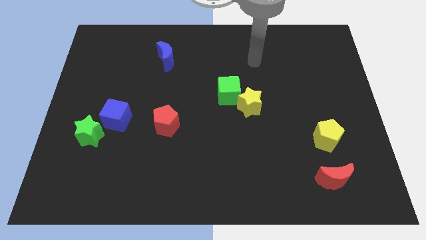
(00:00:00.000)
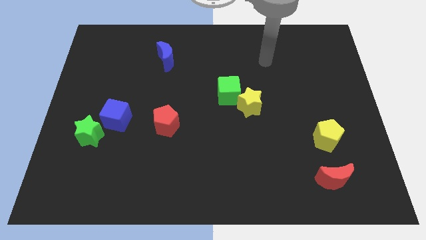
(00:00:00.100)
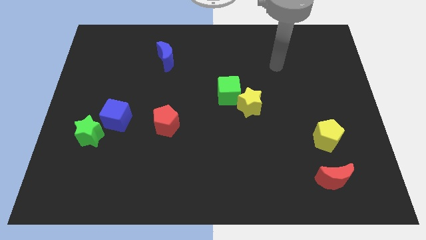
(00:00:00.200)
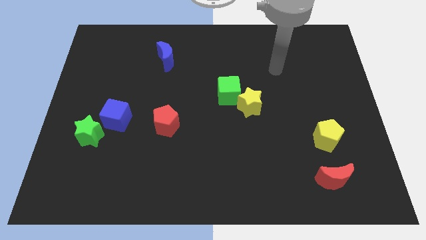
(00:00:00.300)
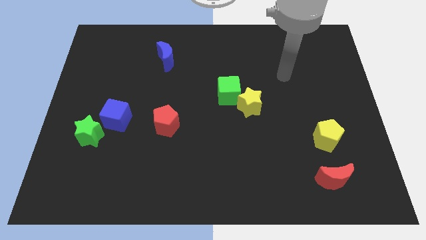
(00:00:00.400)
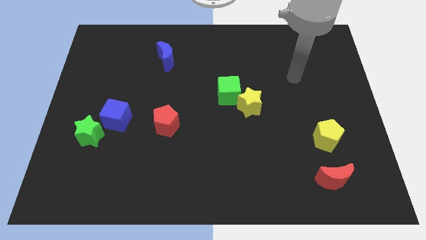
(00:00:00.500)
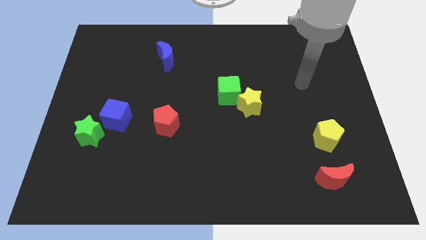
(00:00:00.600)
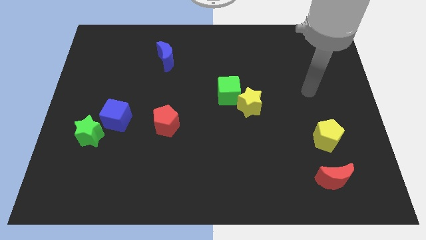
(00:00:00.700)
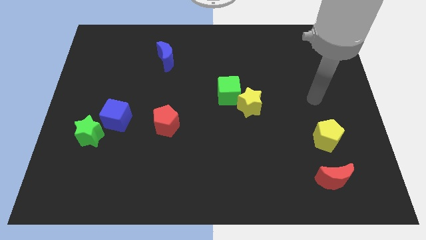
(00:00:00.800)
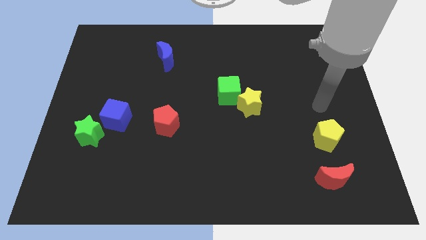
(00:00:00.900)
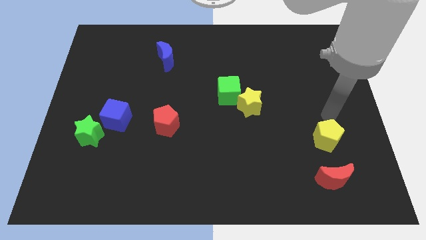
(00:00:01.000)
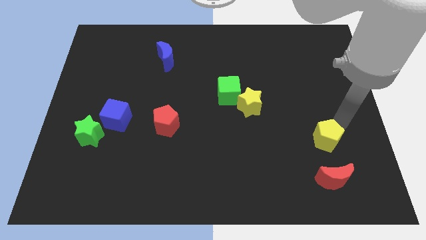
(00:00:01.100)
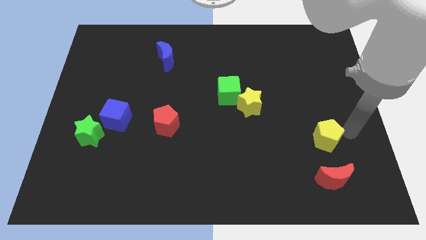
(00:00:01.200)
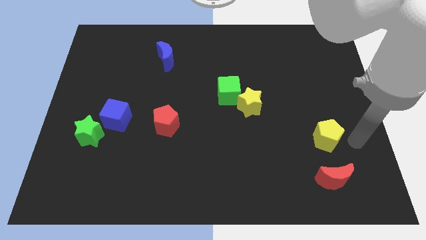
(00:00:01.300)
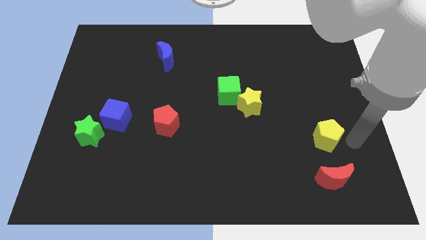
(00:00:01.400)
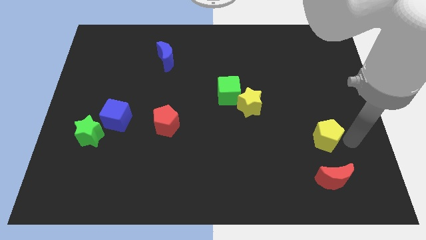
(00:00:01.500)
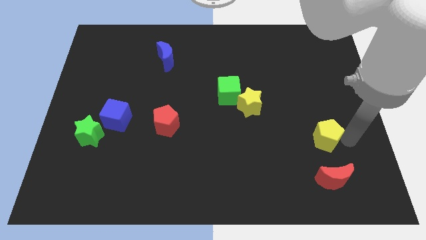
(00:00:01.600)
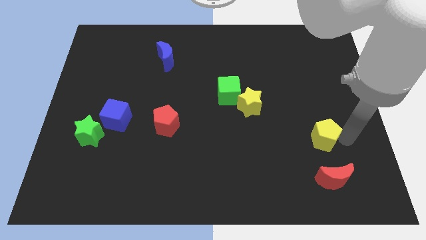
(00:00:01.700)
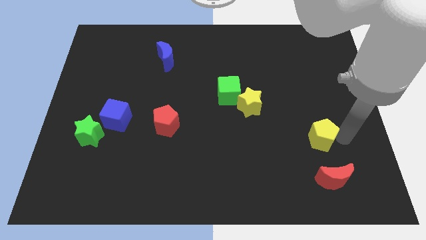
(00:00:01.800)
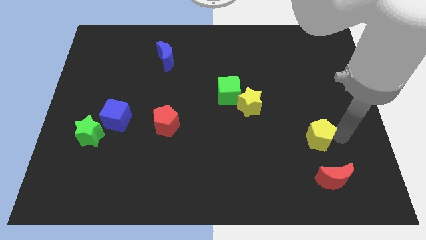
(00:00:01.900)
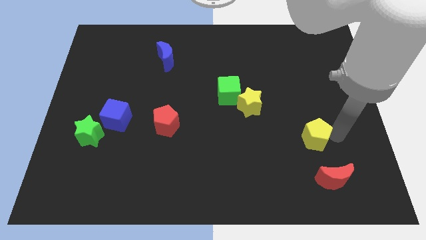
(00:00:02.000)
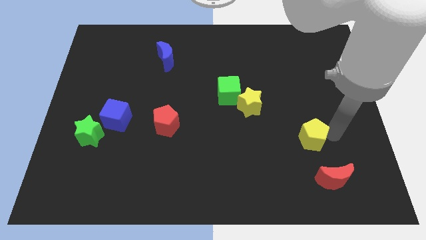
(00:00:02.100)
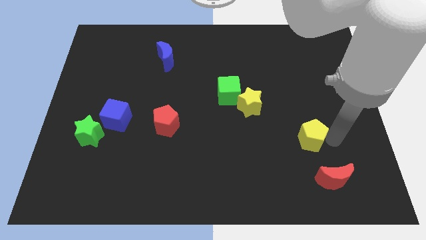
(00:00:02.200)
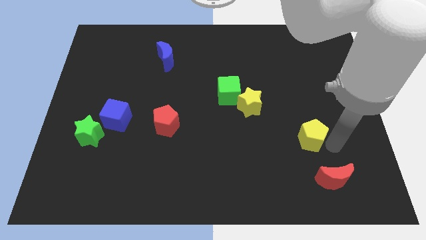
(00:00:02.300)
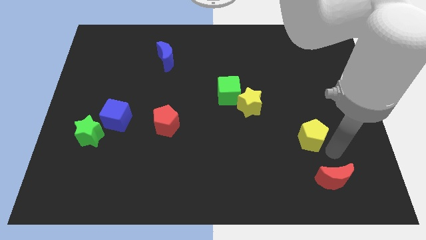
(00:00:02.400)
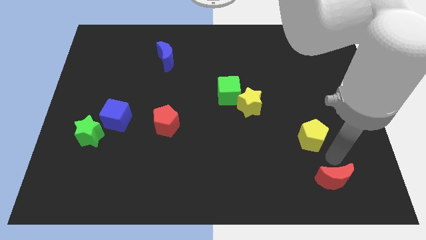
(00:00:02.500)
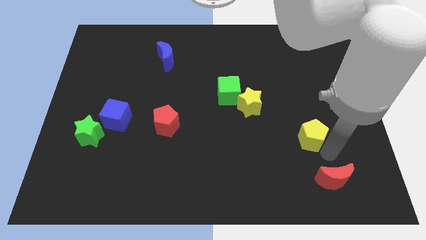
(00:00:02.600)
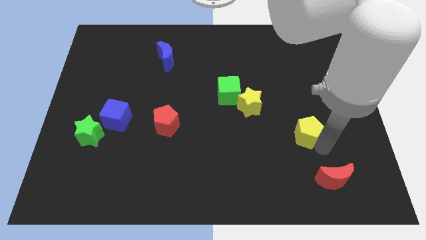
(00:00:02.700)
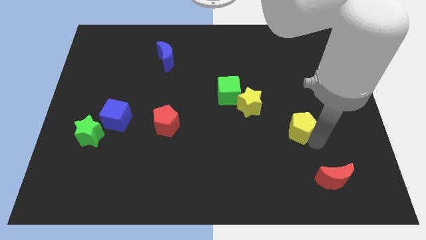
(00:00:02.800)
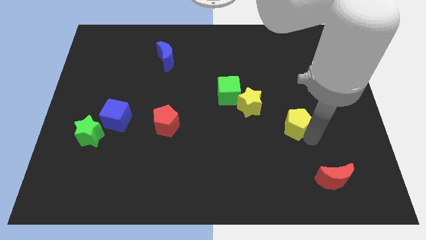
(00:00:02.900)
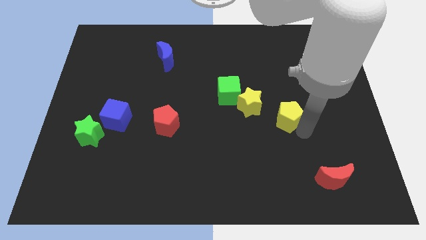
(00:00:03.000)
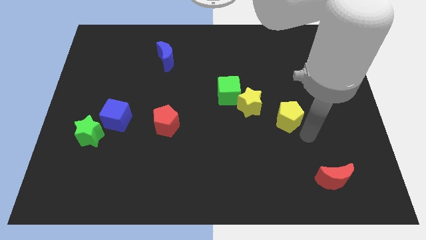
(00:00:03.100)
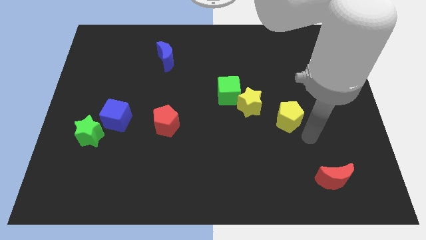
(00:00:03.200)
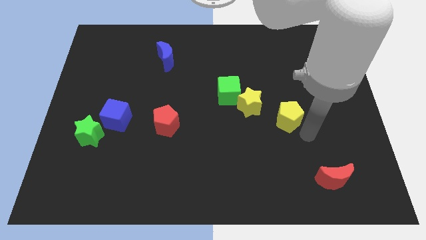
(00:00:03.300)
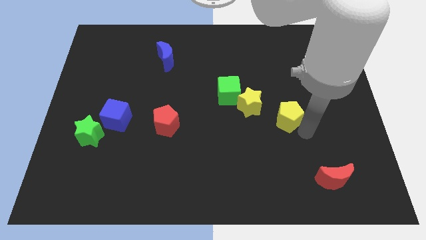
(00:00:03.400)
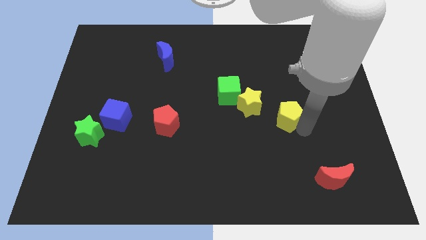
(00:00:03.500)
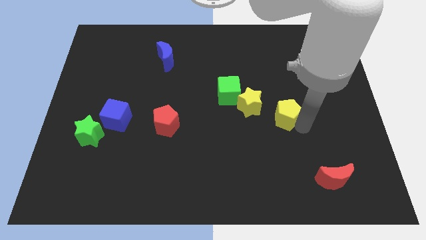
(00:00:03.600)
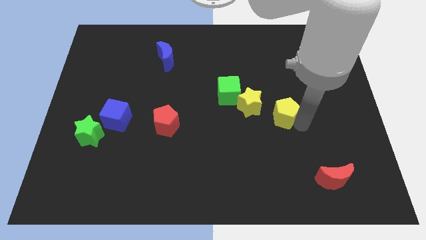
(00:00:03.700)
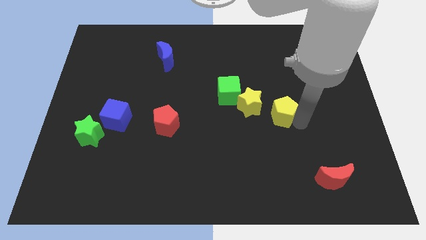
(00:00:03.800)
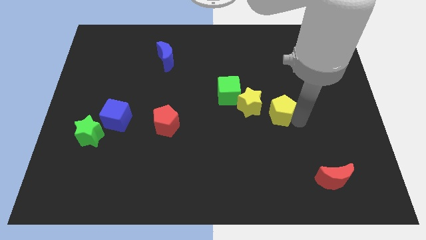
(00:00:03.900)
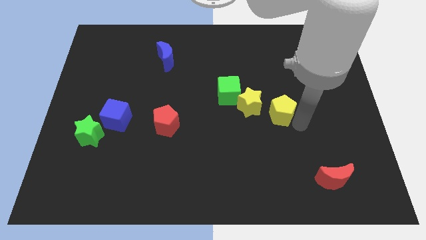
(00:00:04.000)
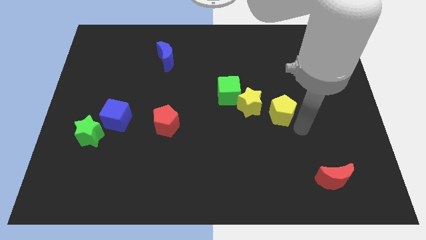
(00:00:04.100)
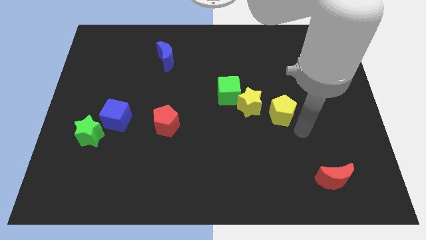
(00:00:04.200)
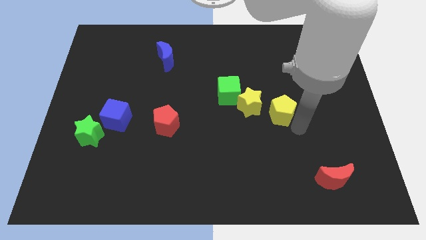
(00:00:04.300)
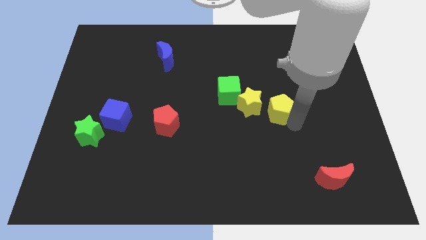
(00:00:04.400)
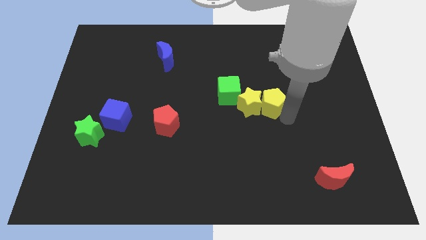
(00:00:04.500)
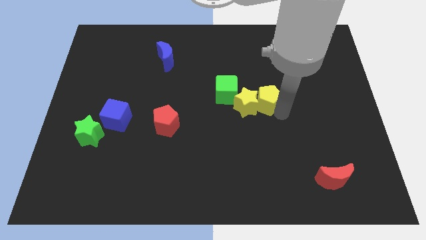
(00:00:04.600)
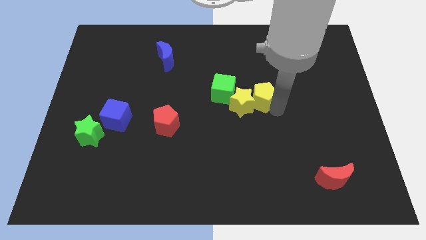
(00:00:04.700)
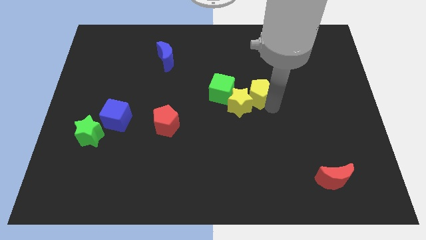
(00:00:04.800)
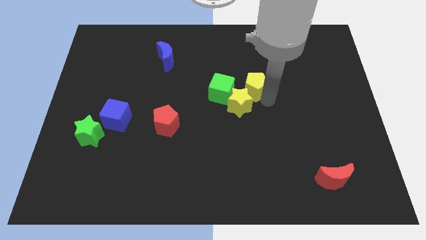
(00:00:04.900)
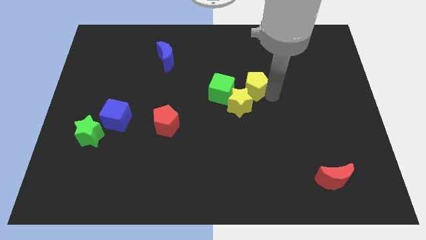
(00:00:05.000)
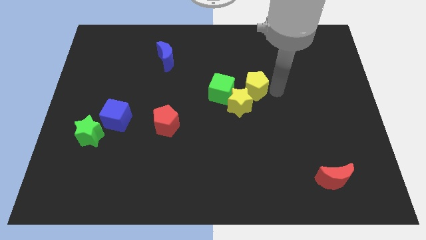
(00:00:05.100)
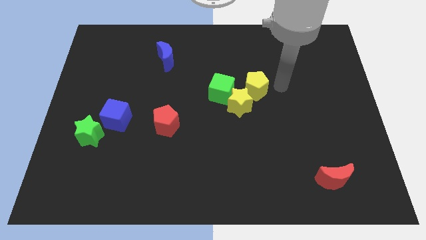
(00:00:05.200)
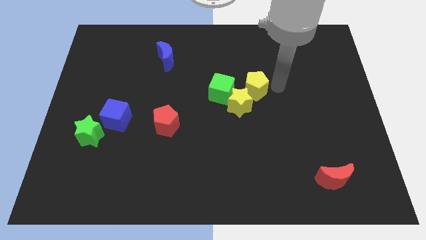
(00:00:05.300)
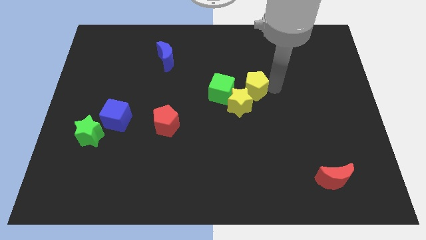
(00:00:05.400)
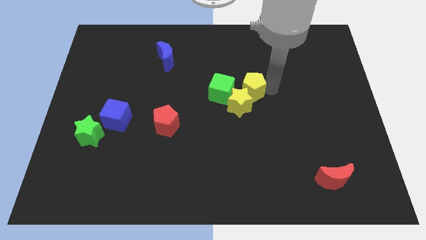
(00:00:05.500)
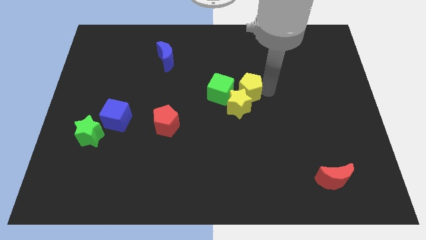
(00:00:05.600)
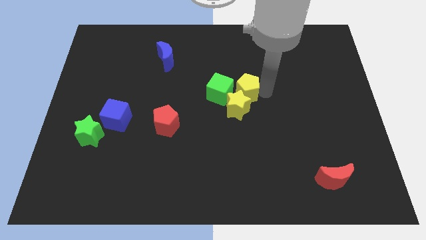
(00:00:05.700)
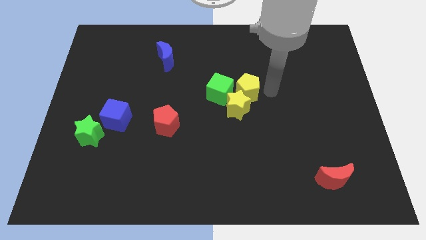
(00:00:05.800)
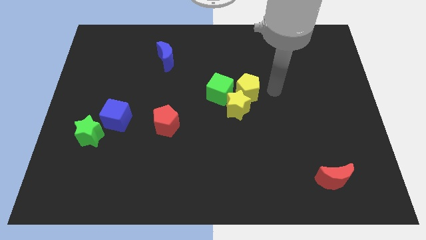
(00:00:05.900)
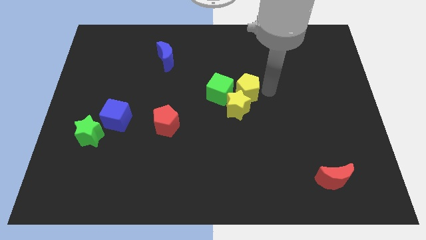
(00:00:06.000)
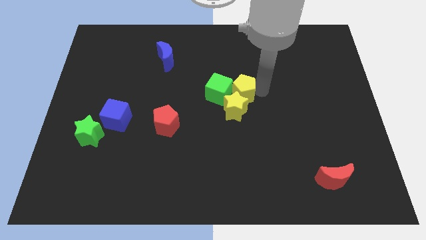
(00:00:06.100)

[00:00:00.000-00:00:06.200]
move the yellow pentagon to the green cube

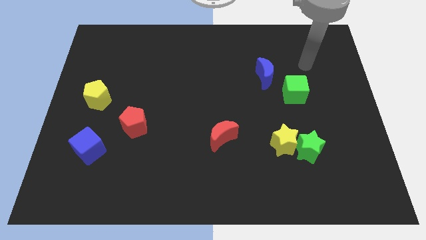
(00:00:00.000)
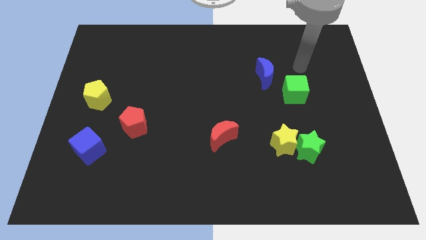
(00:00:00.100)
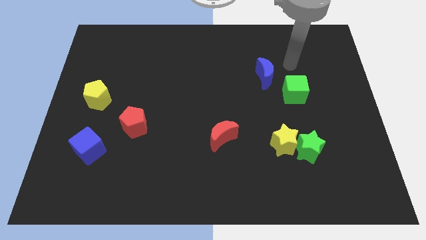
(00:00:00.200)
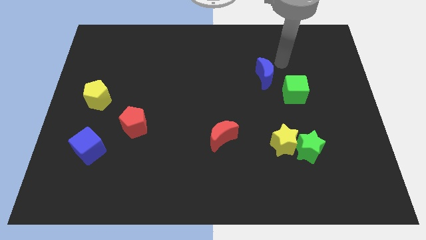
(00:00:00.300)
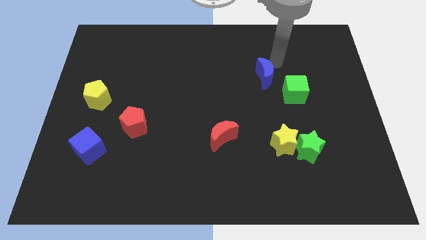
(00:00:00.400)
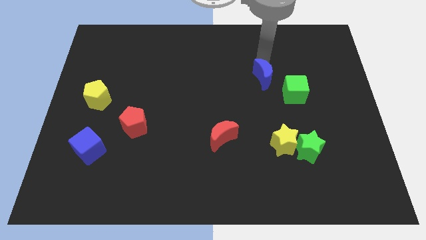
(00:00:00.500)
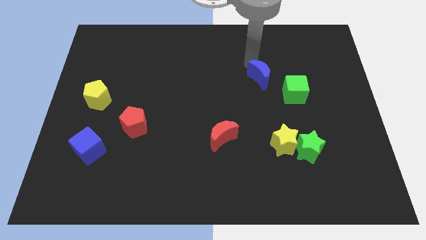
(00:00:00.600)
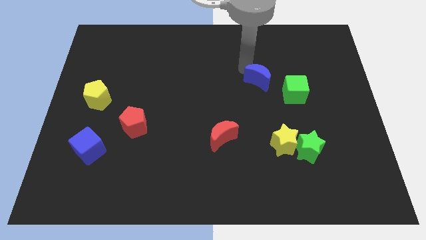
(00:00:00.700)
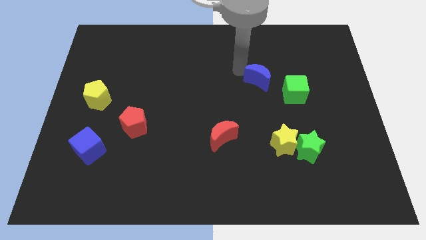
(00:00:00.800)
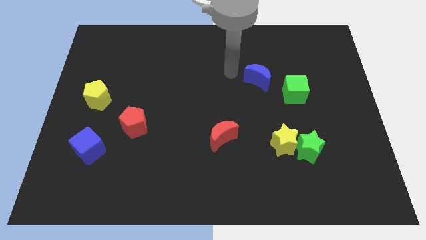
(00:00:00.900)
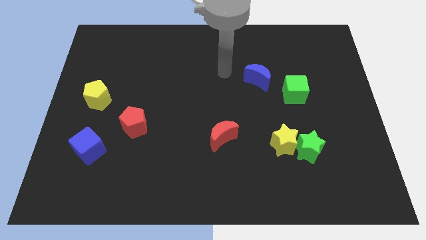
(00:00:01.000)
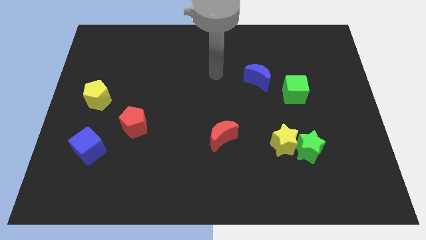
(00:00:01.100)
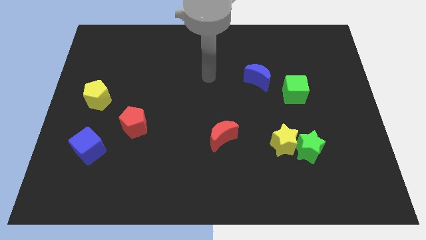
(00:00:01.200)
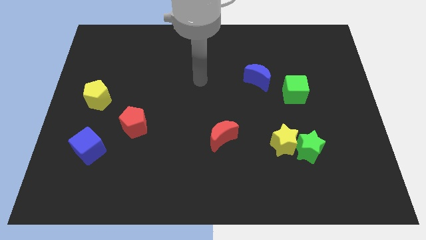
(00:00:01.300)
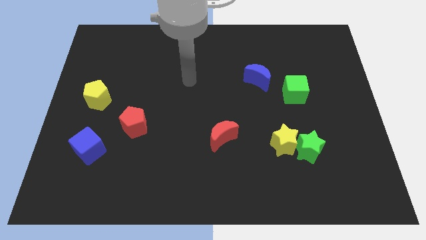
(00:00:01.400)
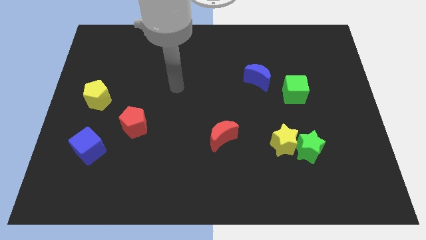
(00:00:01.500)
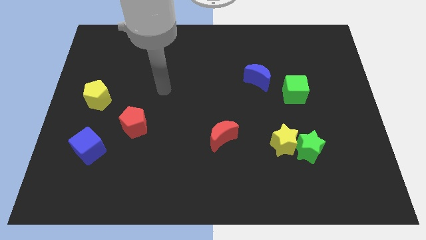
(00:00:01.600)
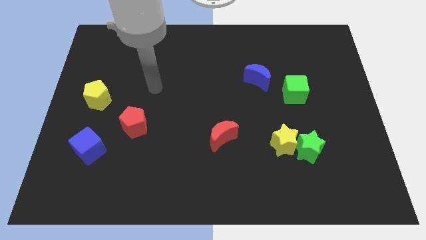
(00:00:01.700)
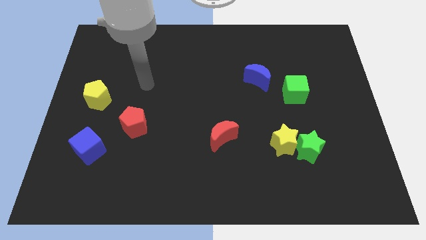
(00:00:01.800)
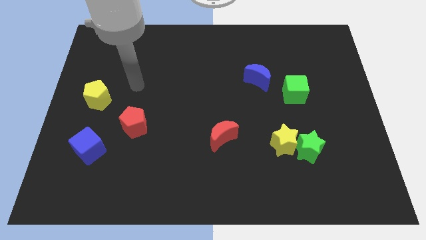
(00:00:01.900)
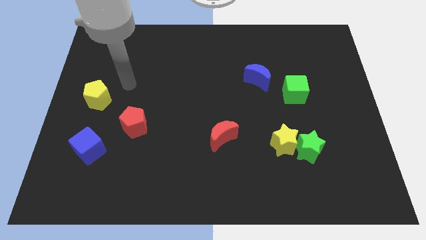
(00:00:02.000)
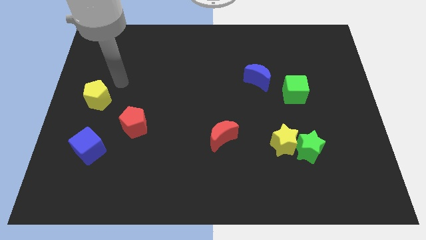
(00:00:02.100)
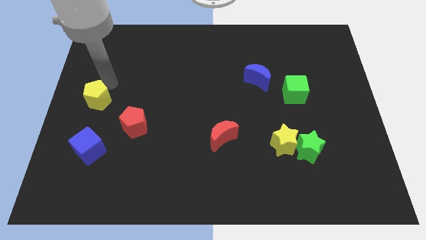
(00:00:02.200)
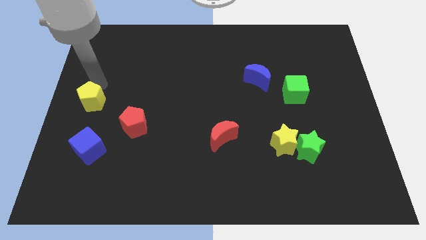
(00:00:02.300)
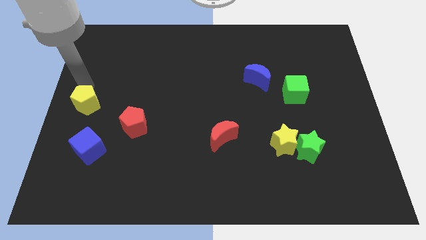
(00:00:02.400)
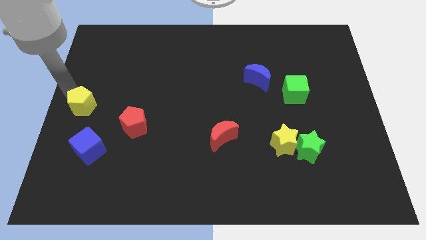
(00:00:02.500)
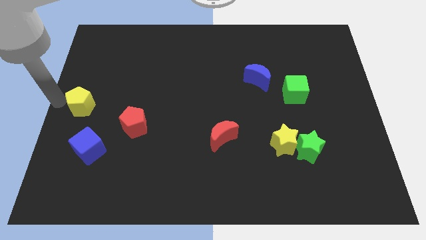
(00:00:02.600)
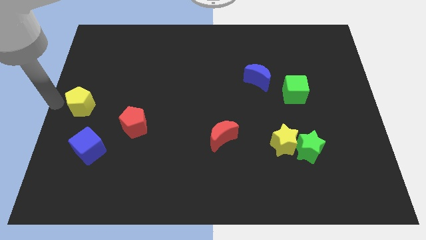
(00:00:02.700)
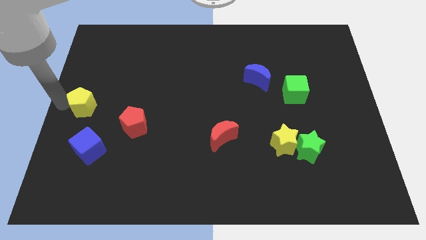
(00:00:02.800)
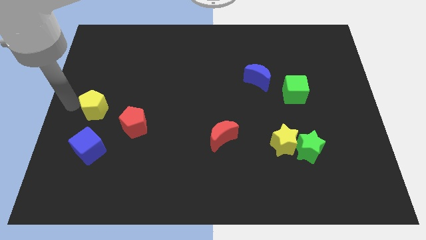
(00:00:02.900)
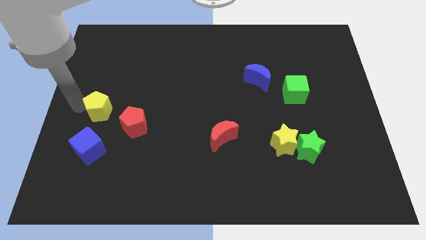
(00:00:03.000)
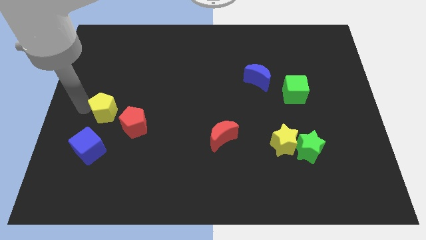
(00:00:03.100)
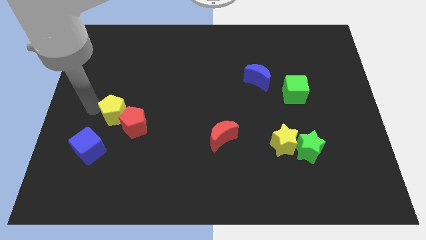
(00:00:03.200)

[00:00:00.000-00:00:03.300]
push the yellow pentagon to the red pentagon
